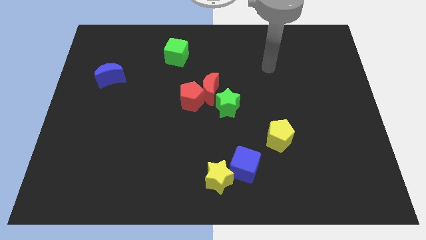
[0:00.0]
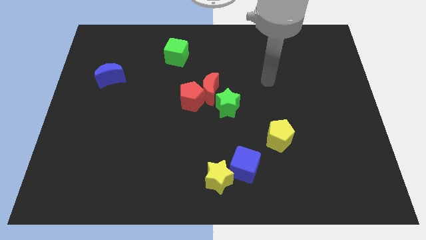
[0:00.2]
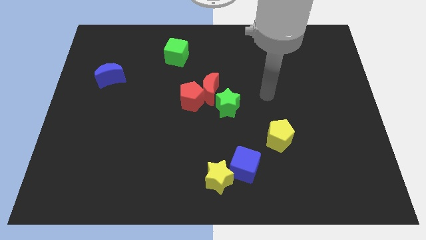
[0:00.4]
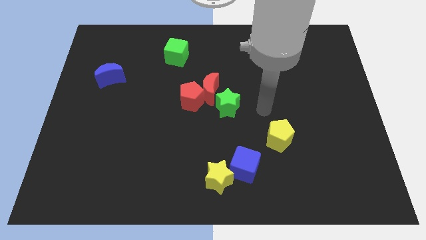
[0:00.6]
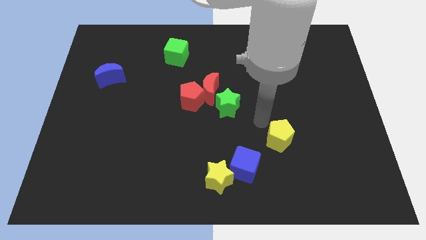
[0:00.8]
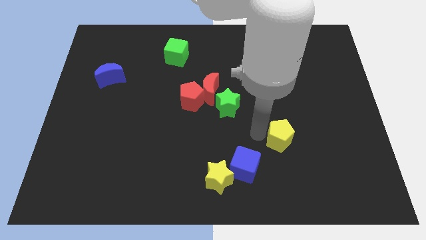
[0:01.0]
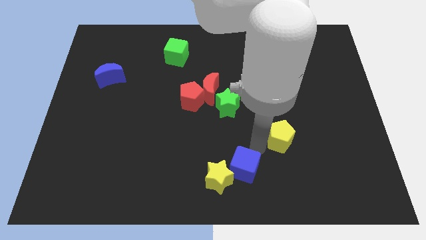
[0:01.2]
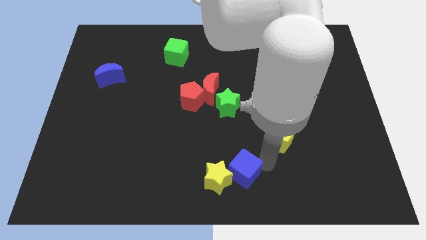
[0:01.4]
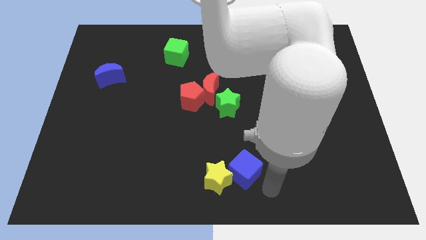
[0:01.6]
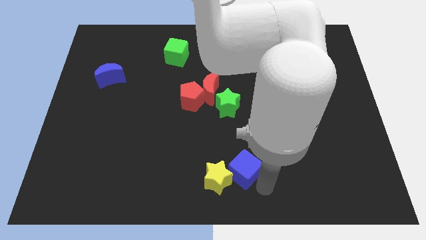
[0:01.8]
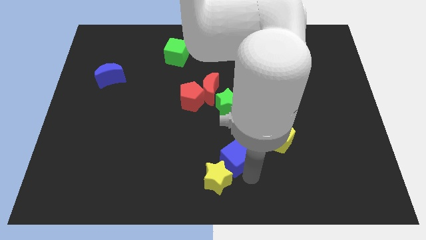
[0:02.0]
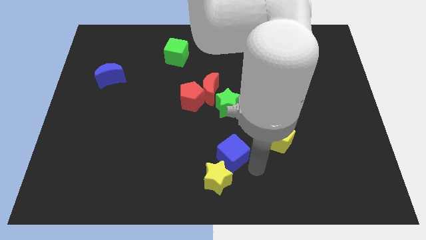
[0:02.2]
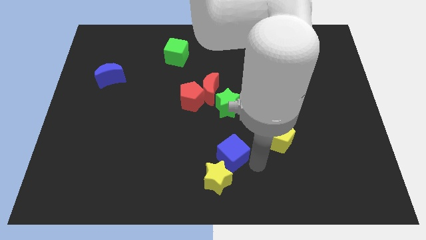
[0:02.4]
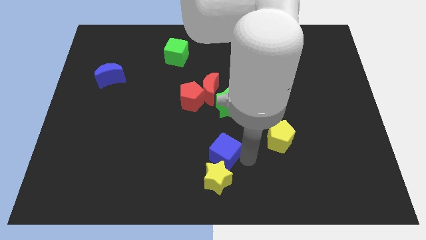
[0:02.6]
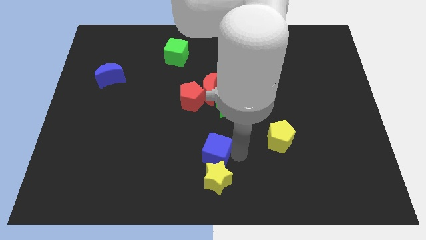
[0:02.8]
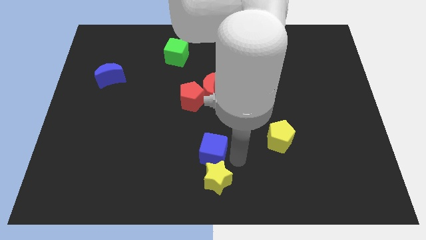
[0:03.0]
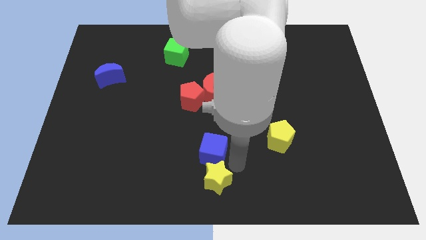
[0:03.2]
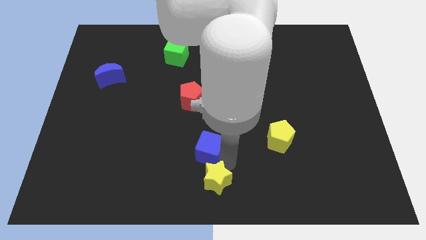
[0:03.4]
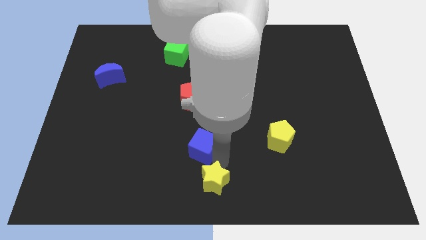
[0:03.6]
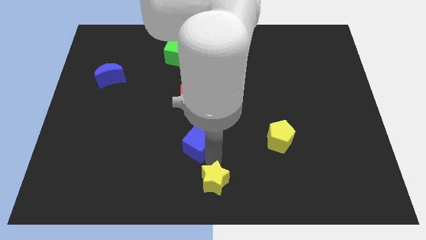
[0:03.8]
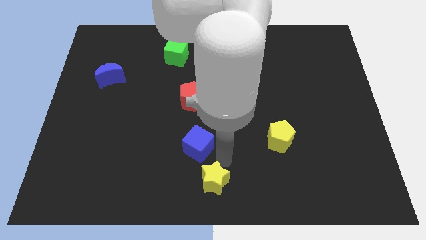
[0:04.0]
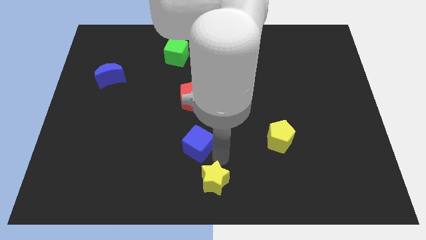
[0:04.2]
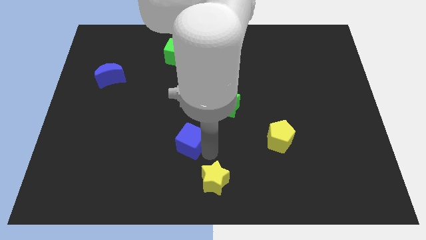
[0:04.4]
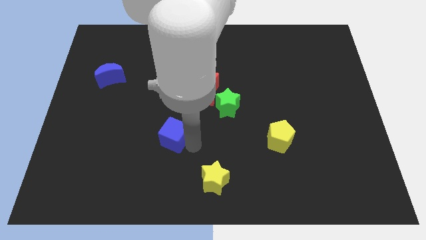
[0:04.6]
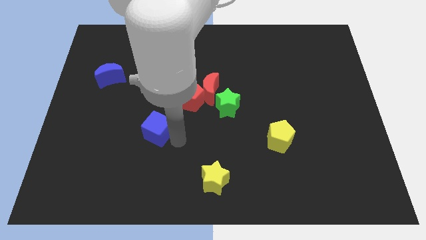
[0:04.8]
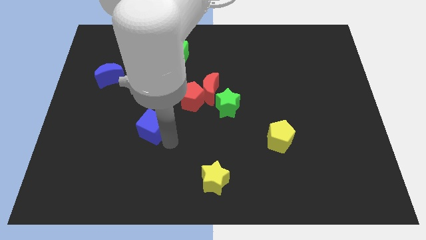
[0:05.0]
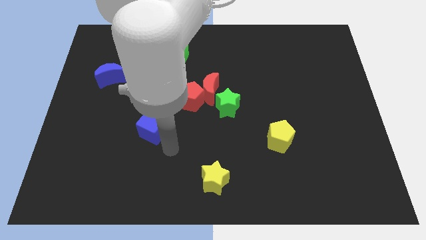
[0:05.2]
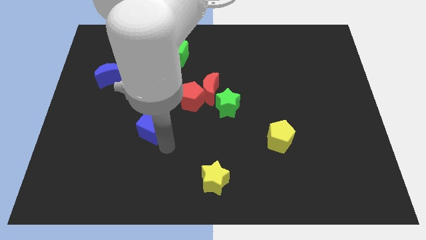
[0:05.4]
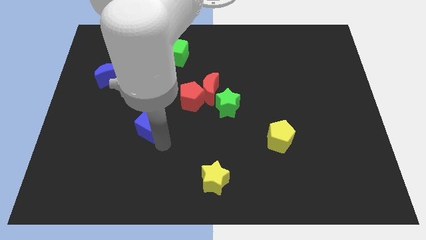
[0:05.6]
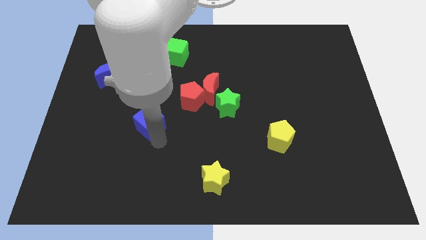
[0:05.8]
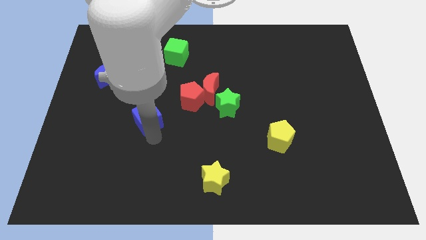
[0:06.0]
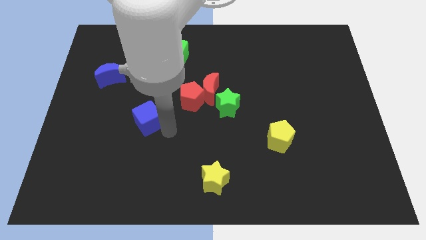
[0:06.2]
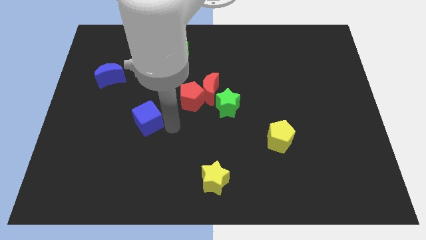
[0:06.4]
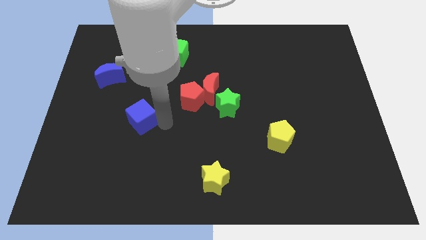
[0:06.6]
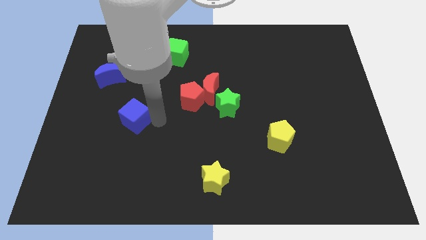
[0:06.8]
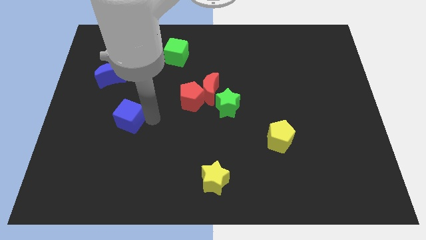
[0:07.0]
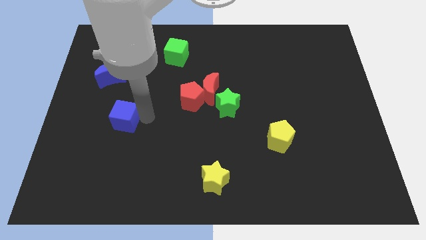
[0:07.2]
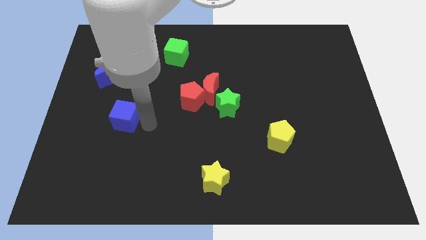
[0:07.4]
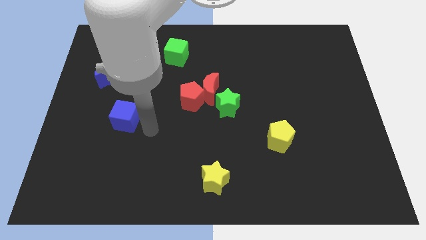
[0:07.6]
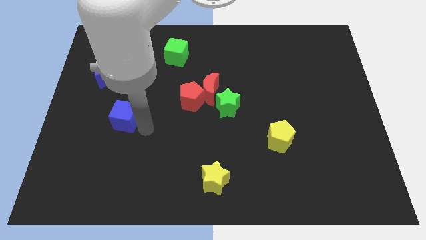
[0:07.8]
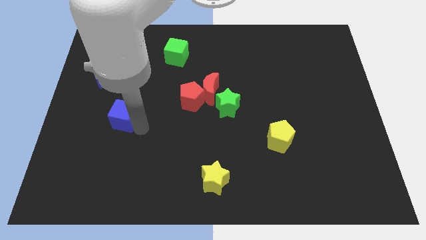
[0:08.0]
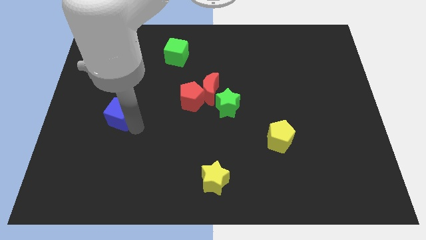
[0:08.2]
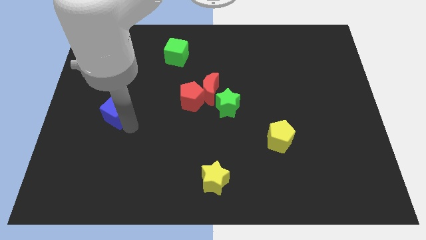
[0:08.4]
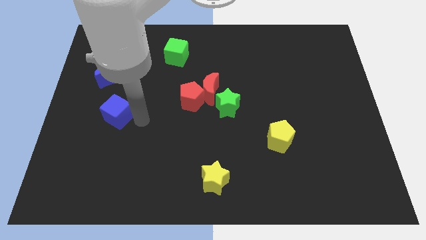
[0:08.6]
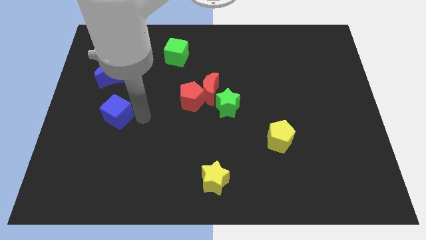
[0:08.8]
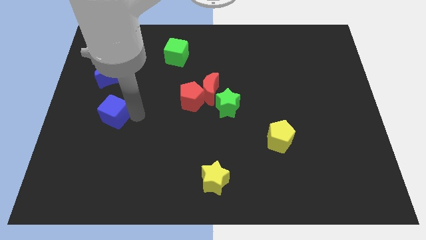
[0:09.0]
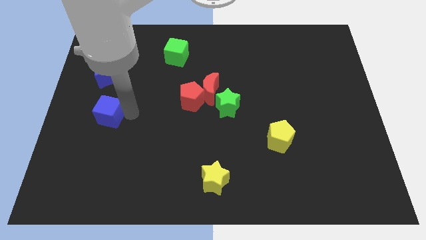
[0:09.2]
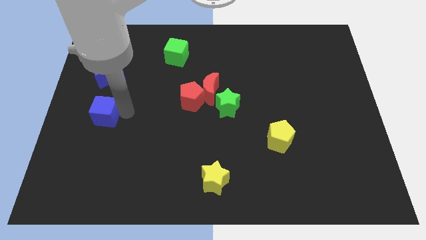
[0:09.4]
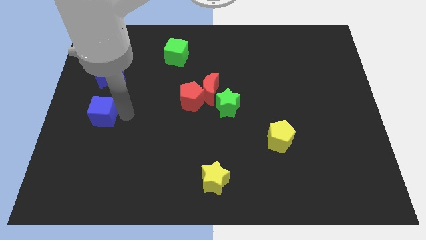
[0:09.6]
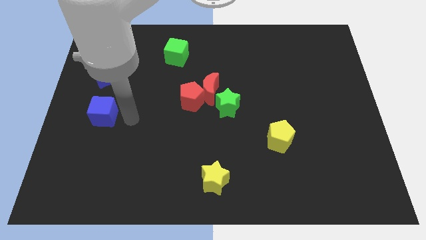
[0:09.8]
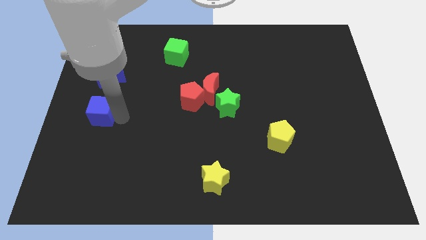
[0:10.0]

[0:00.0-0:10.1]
move the blue cube to the left side of the board

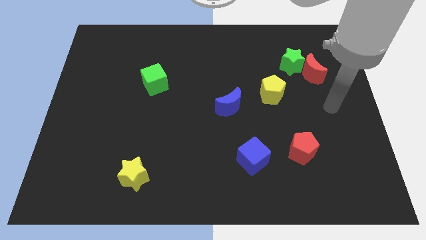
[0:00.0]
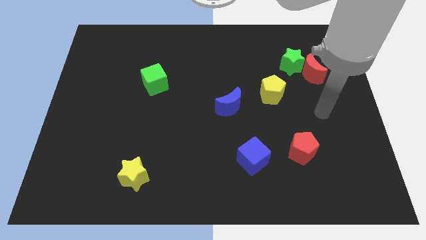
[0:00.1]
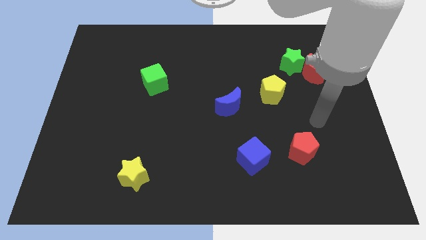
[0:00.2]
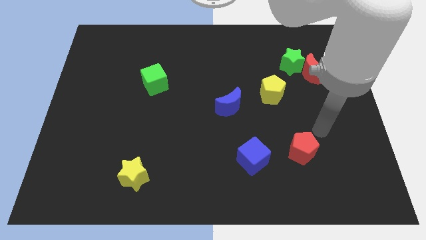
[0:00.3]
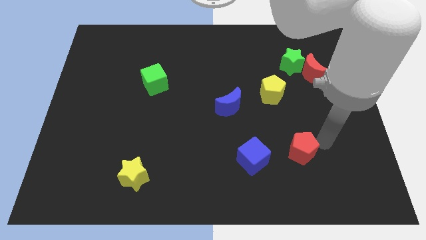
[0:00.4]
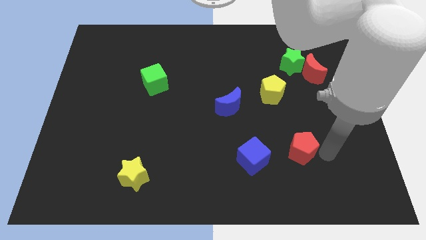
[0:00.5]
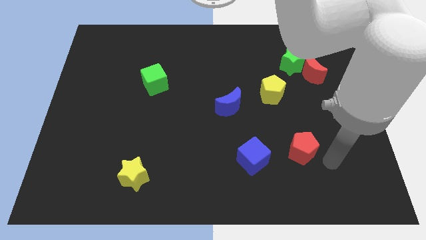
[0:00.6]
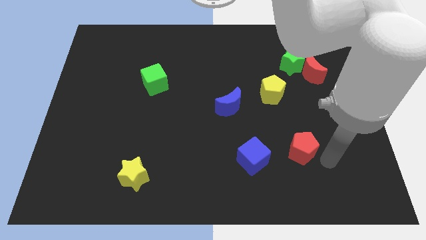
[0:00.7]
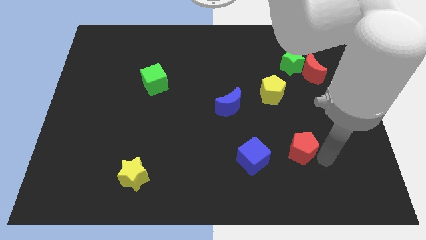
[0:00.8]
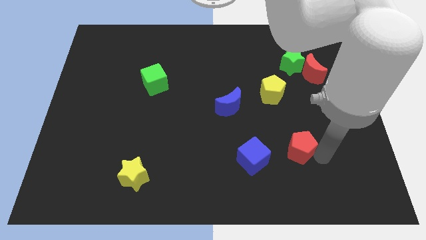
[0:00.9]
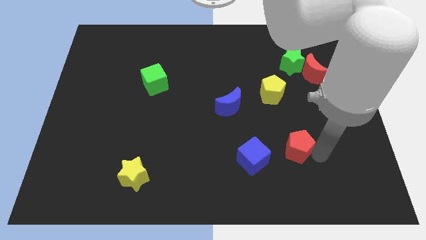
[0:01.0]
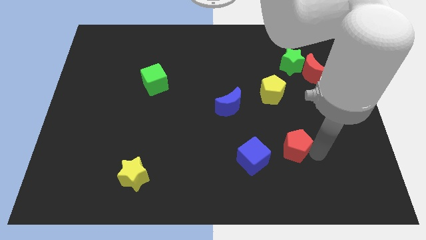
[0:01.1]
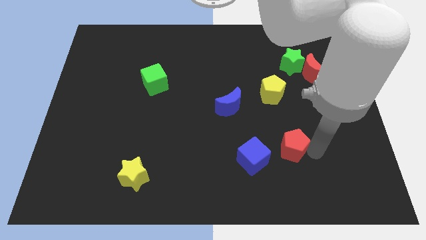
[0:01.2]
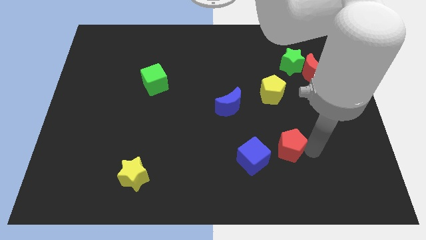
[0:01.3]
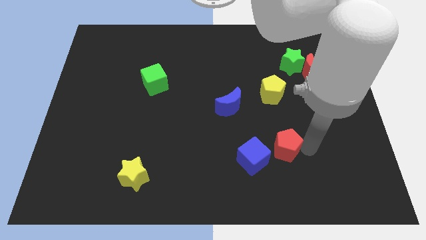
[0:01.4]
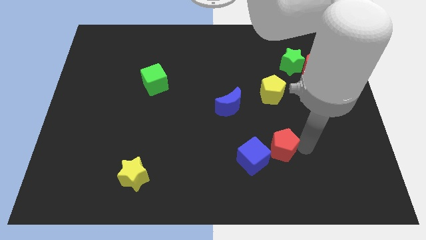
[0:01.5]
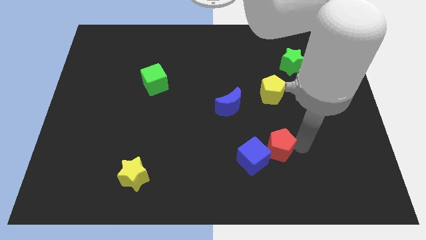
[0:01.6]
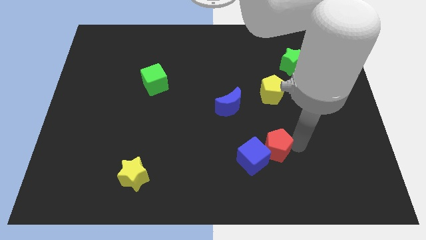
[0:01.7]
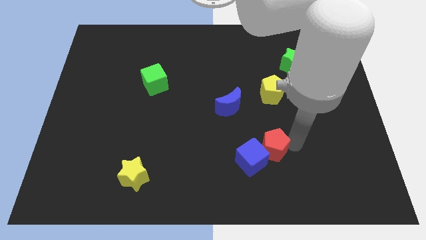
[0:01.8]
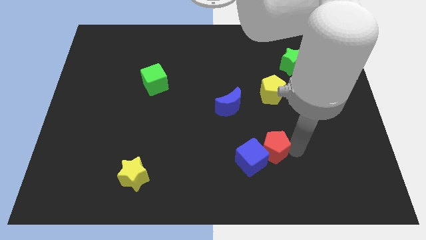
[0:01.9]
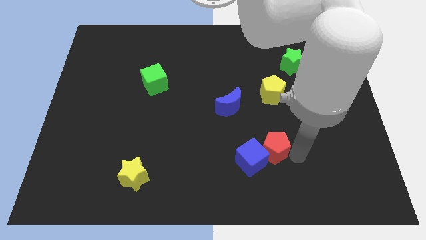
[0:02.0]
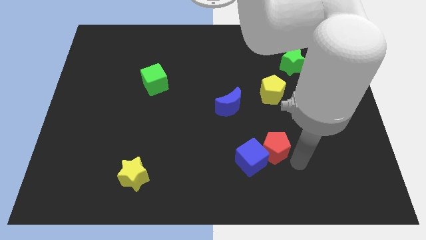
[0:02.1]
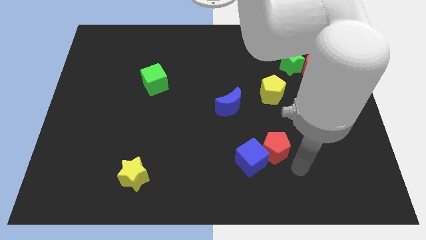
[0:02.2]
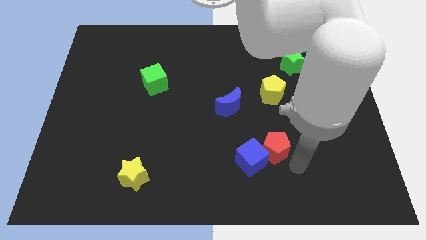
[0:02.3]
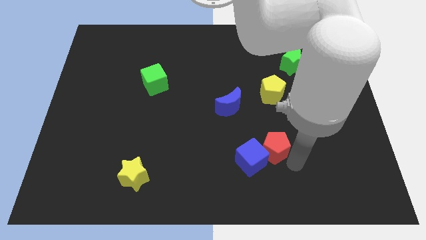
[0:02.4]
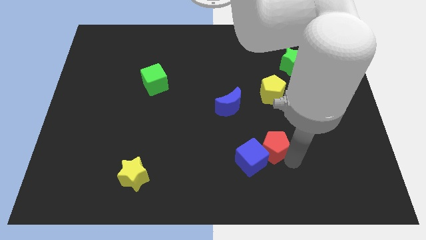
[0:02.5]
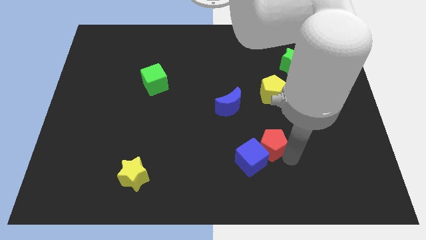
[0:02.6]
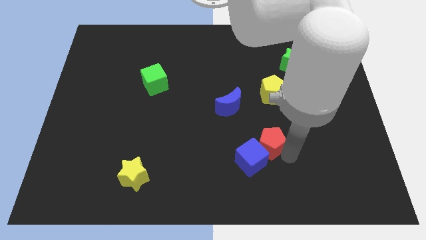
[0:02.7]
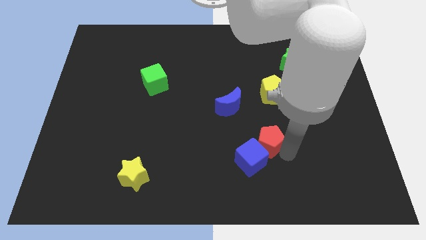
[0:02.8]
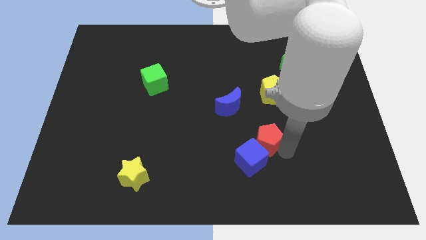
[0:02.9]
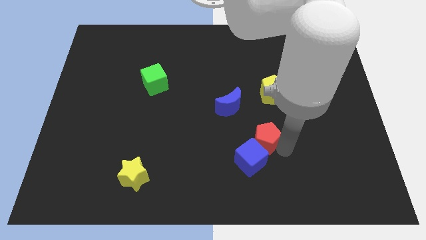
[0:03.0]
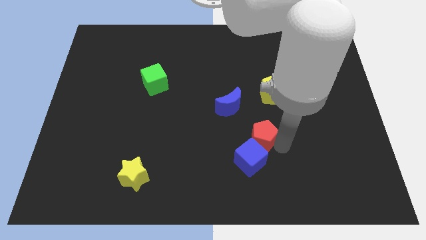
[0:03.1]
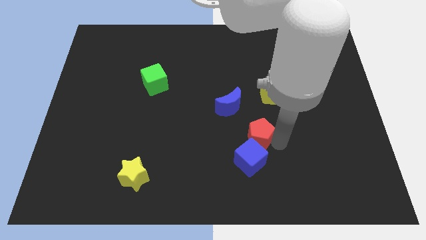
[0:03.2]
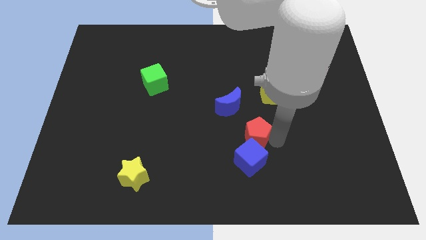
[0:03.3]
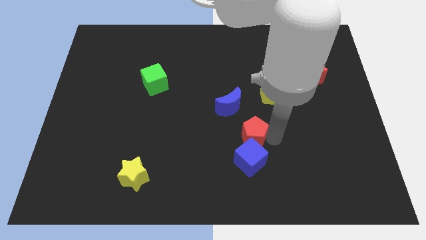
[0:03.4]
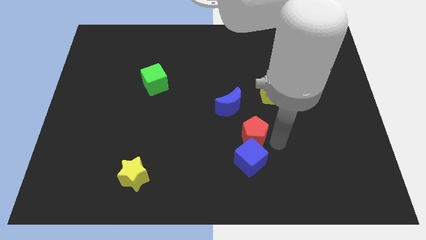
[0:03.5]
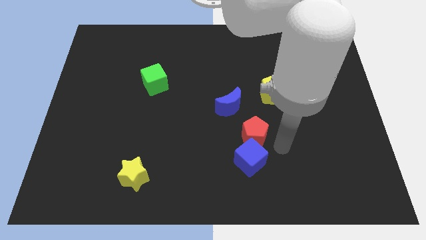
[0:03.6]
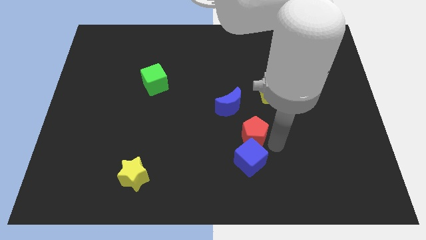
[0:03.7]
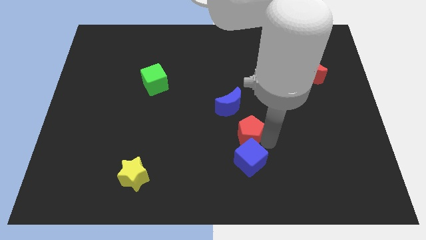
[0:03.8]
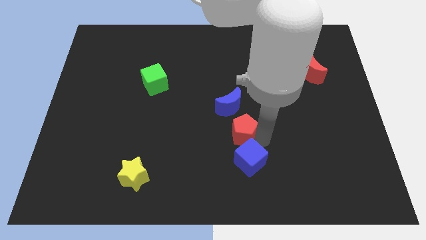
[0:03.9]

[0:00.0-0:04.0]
put the red pentagon to the center of the board
